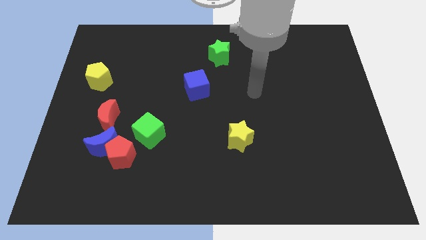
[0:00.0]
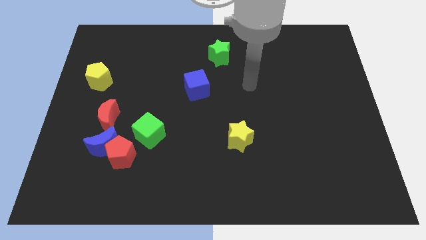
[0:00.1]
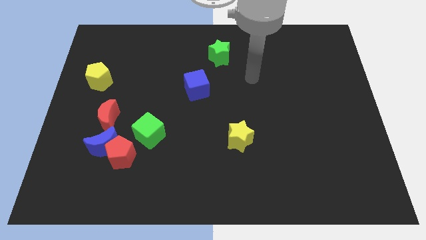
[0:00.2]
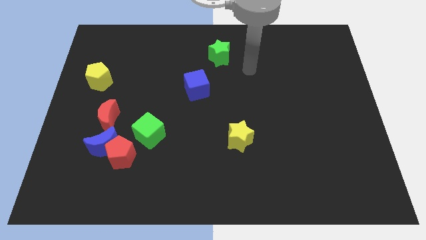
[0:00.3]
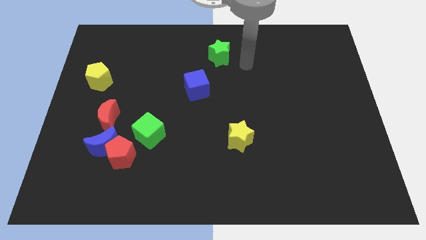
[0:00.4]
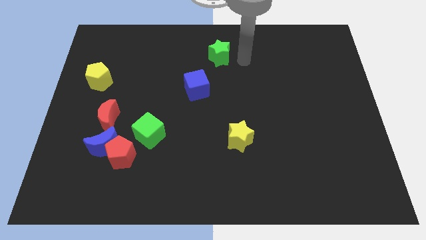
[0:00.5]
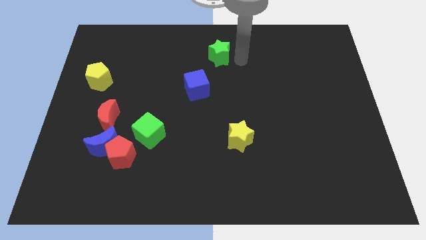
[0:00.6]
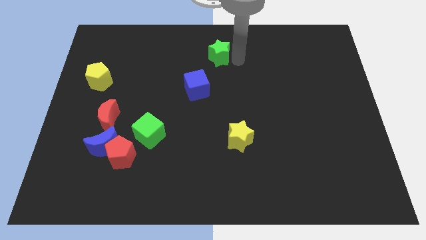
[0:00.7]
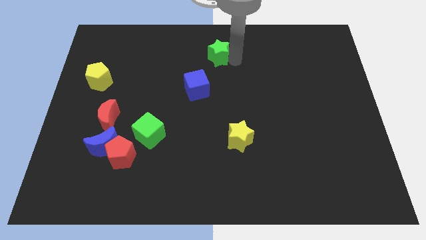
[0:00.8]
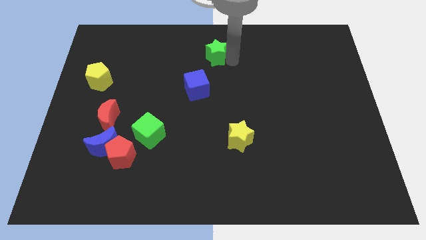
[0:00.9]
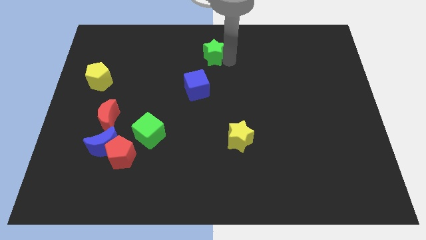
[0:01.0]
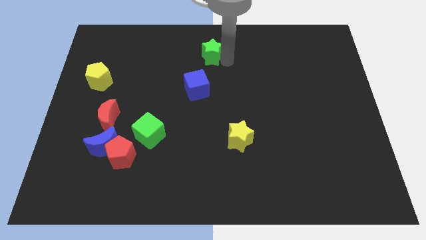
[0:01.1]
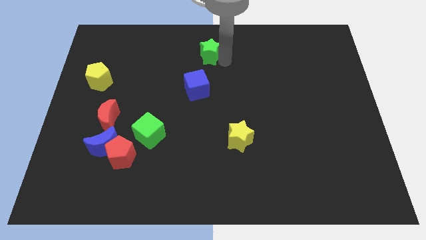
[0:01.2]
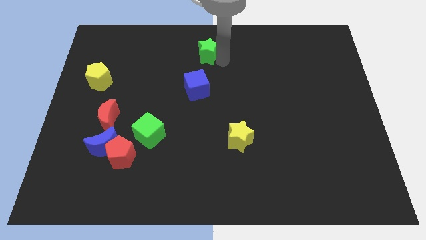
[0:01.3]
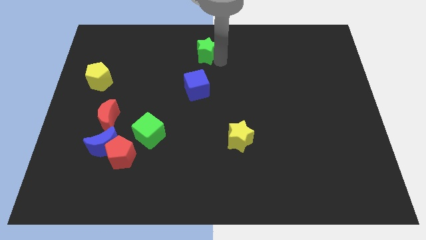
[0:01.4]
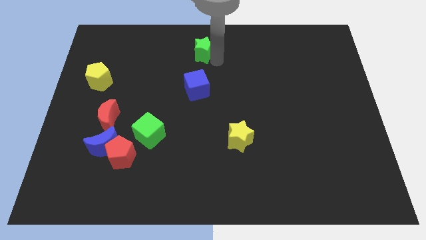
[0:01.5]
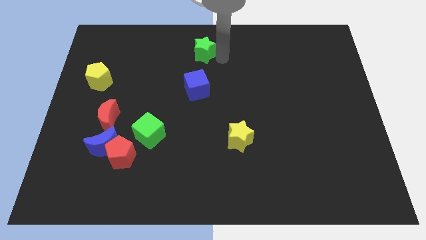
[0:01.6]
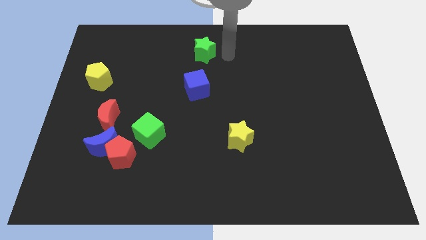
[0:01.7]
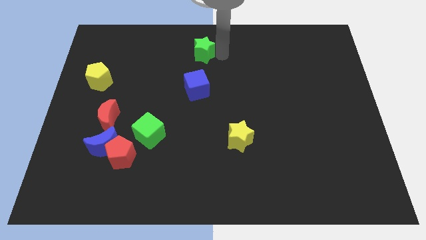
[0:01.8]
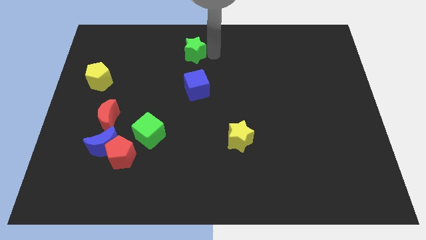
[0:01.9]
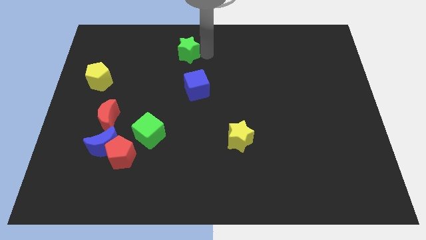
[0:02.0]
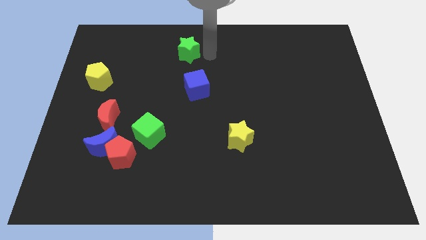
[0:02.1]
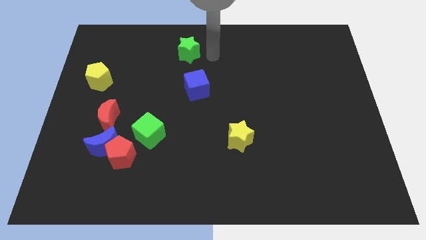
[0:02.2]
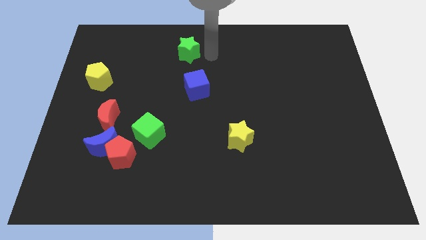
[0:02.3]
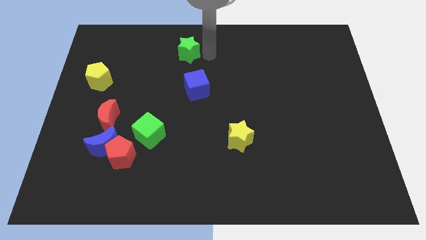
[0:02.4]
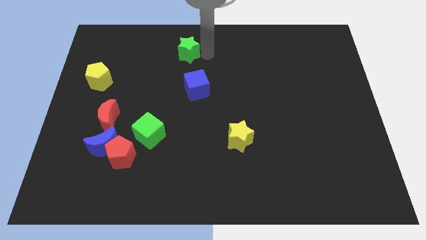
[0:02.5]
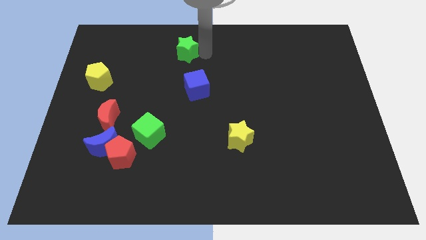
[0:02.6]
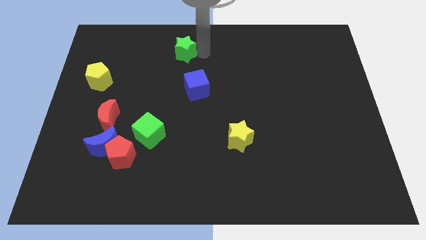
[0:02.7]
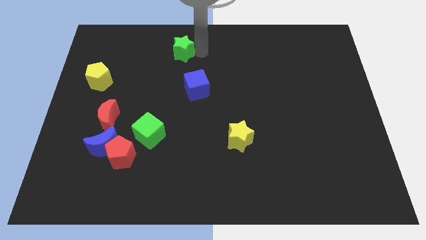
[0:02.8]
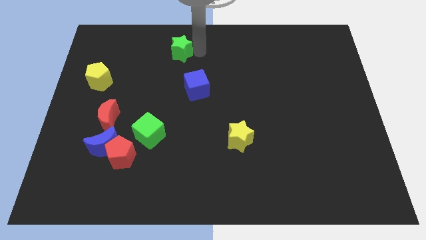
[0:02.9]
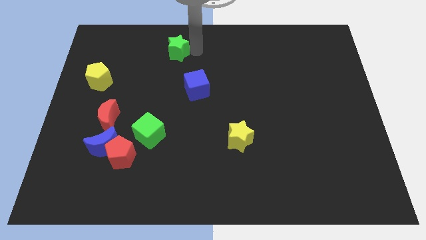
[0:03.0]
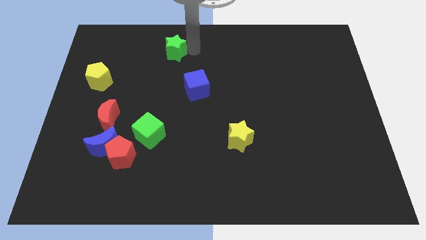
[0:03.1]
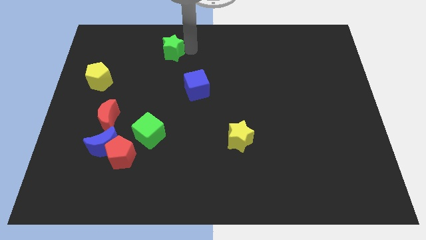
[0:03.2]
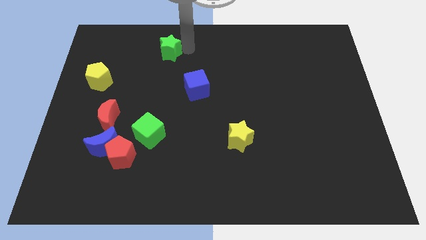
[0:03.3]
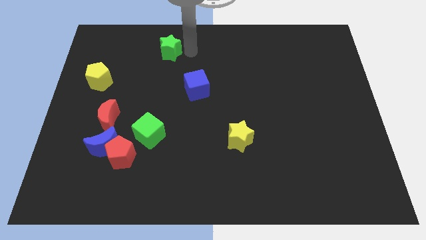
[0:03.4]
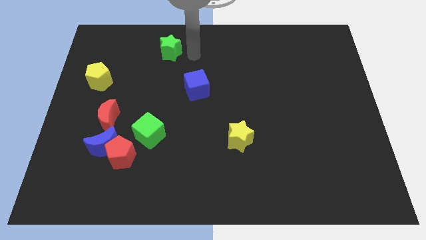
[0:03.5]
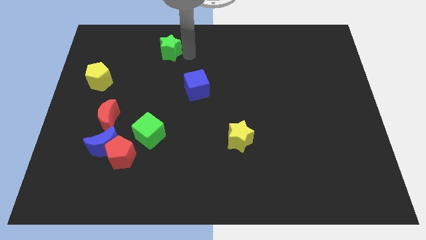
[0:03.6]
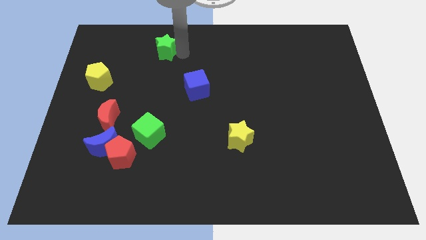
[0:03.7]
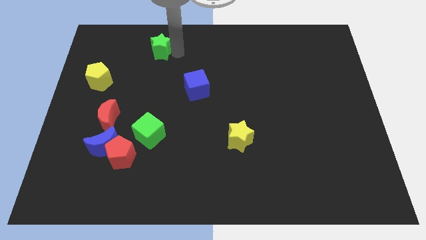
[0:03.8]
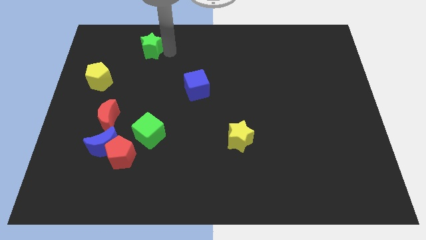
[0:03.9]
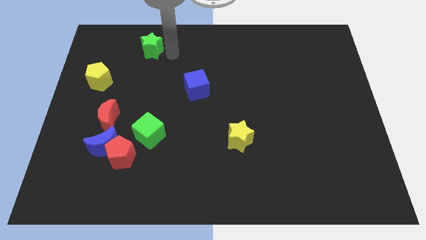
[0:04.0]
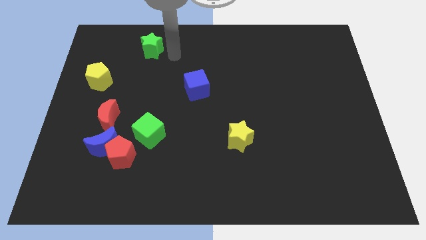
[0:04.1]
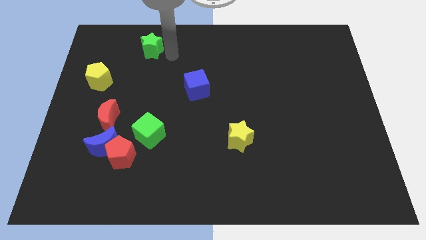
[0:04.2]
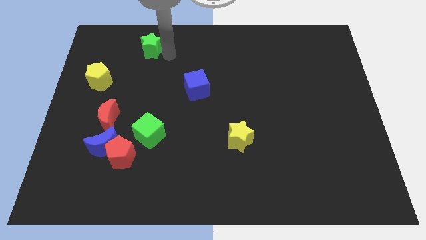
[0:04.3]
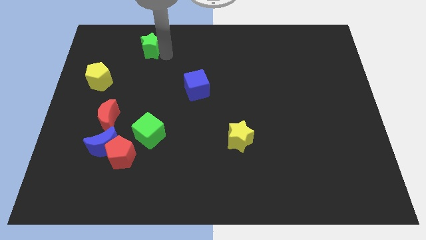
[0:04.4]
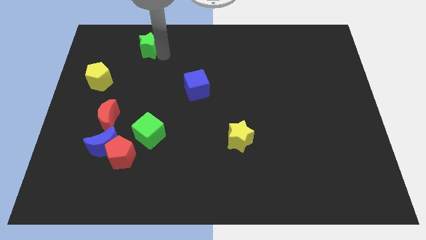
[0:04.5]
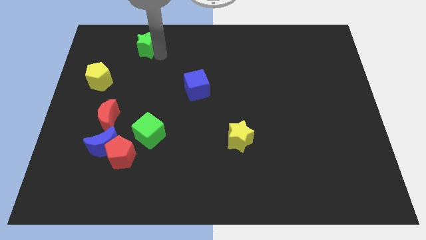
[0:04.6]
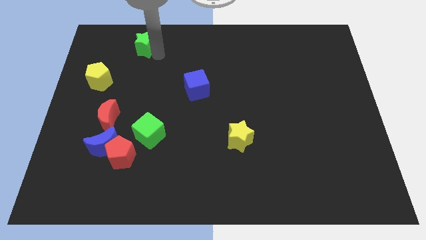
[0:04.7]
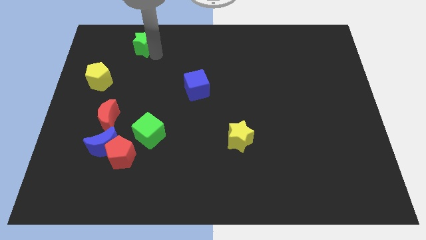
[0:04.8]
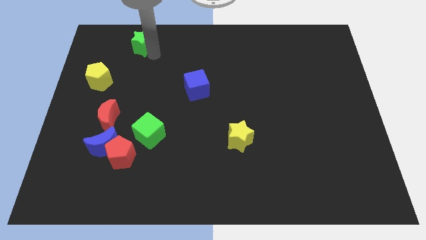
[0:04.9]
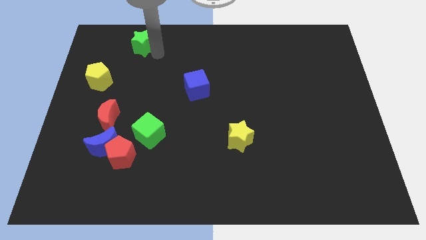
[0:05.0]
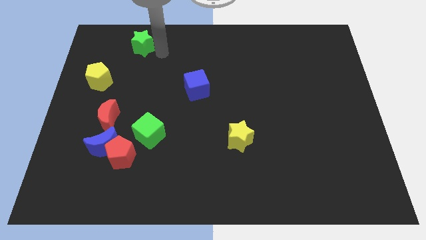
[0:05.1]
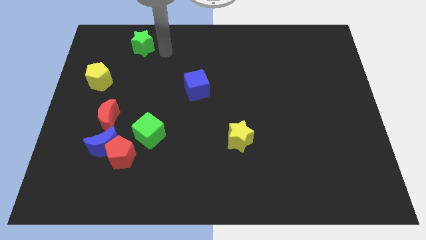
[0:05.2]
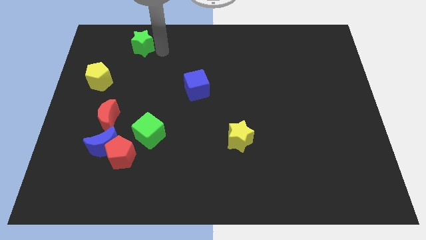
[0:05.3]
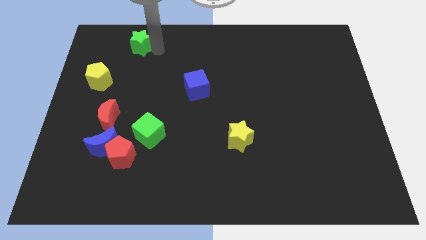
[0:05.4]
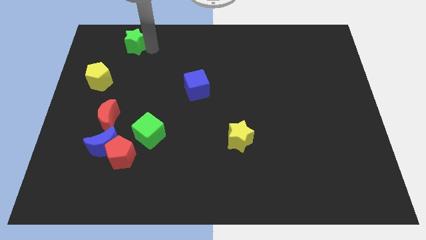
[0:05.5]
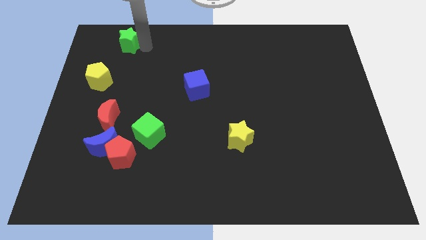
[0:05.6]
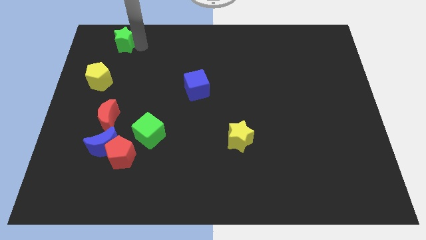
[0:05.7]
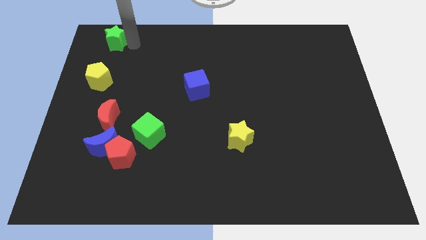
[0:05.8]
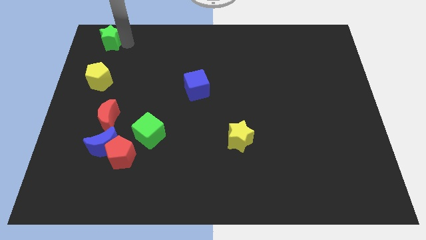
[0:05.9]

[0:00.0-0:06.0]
move the green star to the top left

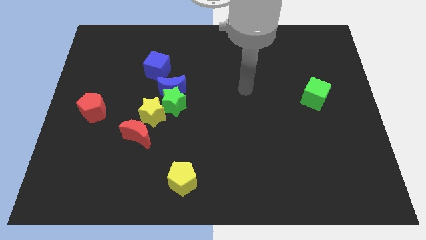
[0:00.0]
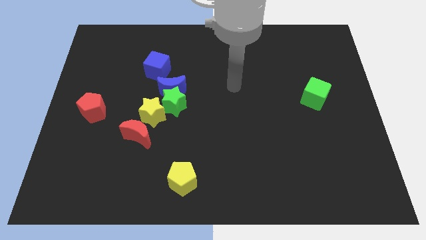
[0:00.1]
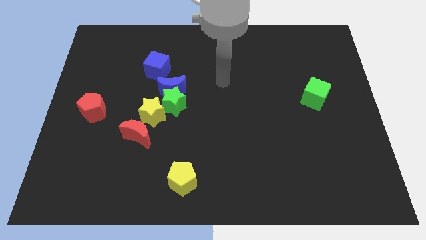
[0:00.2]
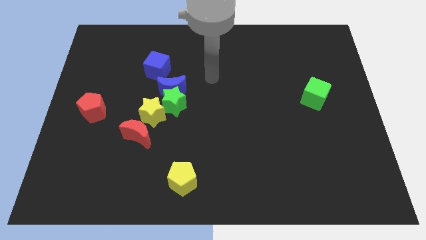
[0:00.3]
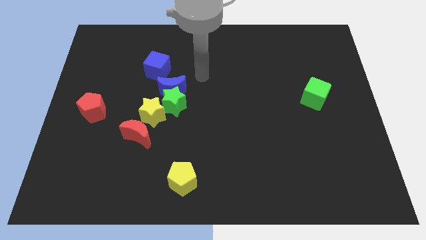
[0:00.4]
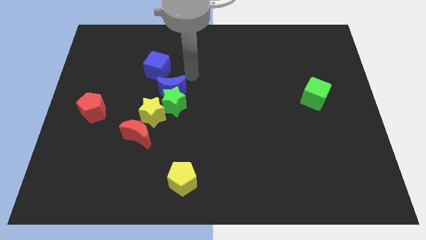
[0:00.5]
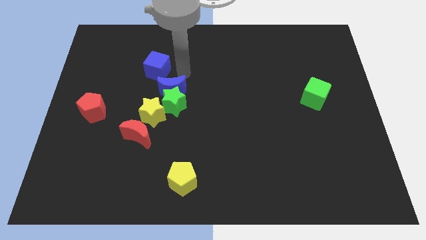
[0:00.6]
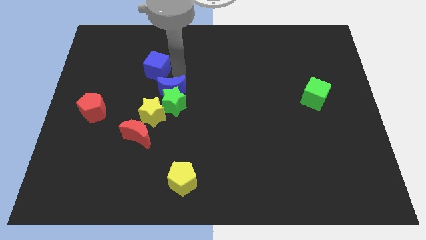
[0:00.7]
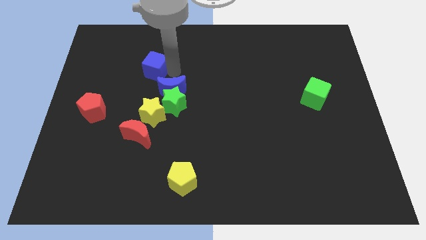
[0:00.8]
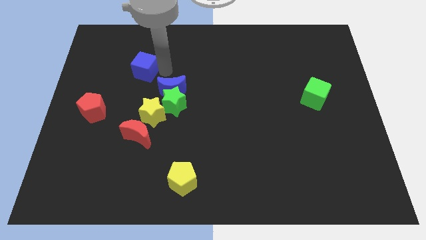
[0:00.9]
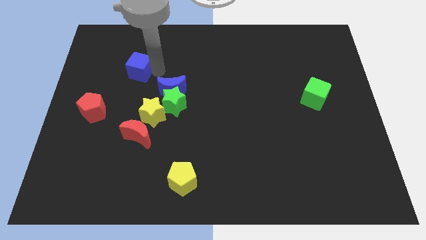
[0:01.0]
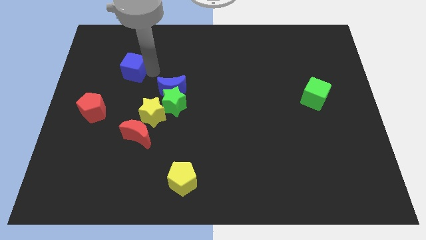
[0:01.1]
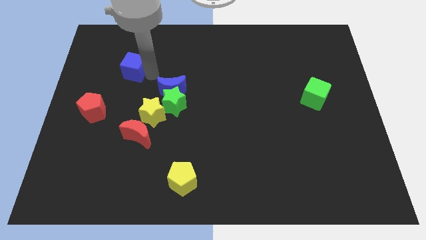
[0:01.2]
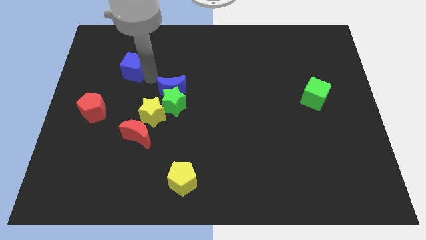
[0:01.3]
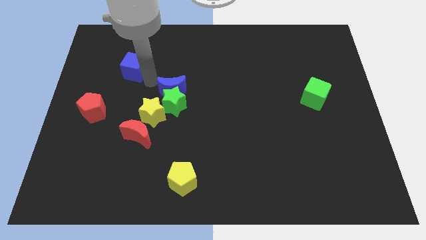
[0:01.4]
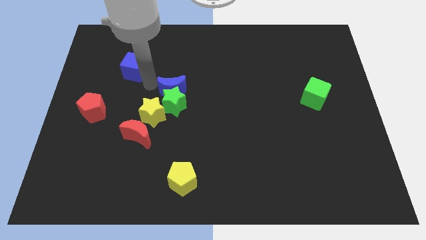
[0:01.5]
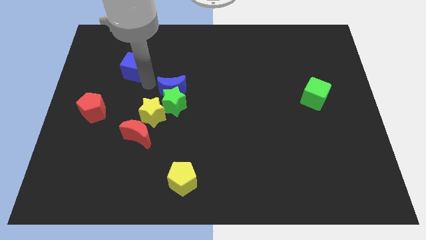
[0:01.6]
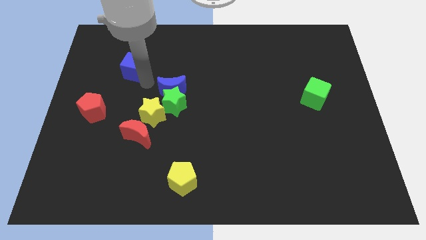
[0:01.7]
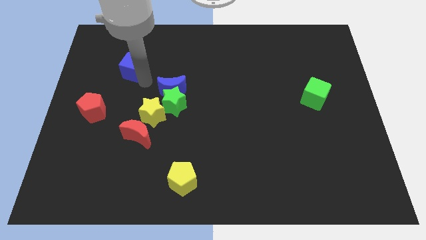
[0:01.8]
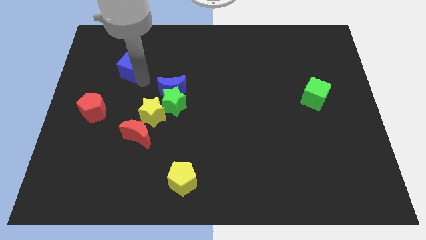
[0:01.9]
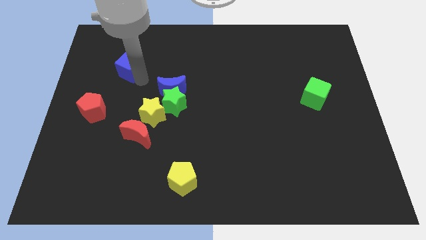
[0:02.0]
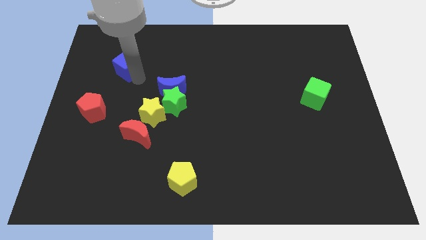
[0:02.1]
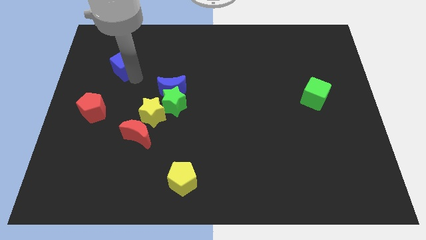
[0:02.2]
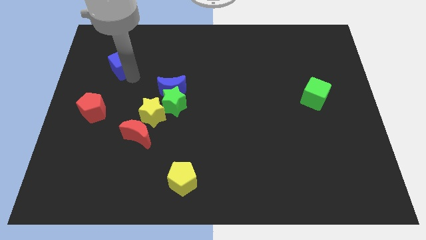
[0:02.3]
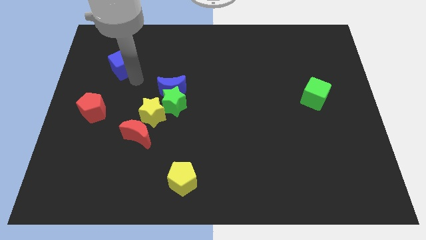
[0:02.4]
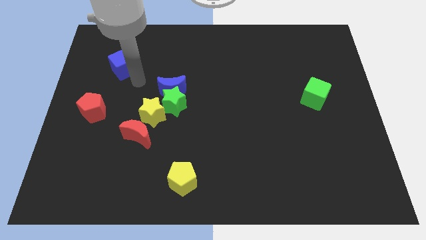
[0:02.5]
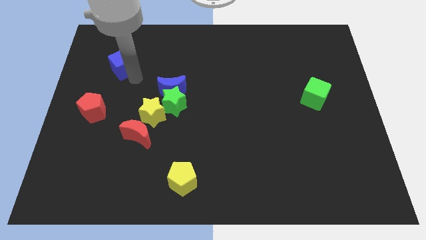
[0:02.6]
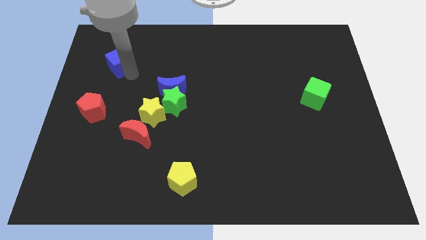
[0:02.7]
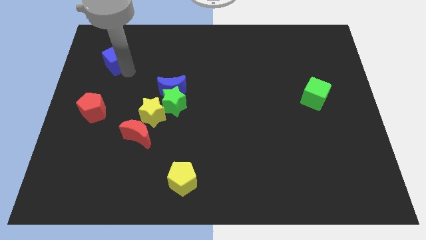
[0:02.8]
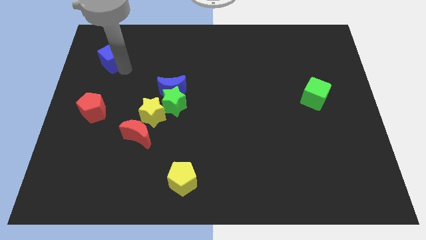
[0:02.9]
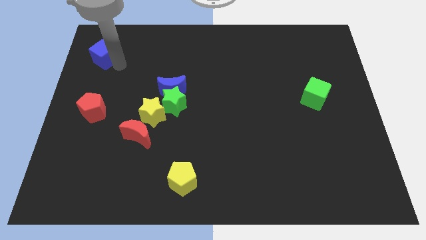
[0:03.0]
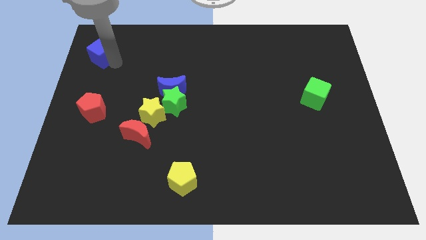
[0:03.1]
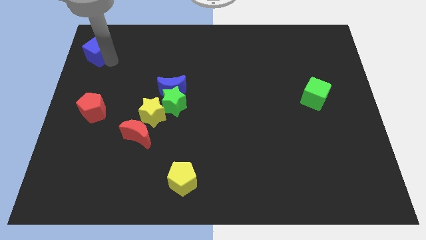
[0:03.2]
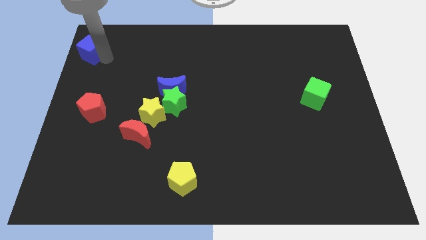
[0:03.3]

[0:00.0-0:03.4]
push the blue cube to the upper left corner
